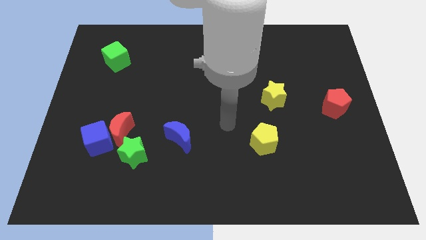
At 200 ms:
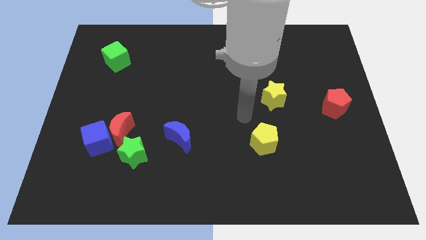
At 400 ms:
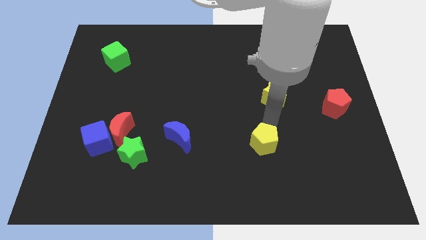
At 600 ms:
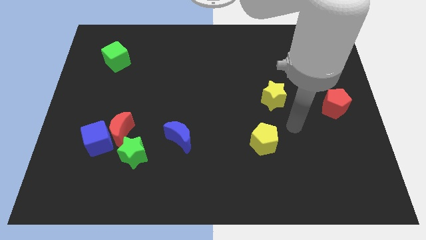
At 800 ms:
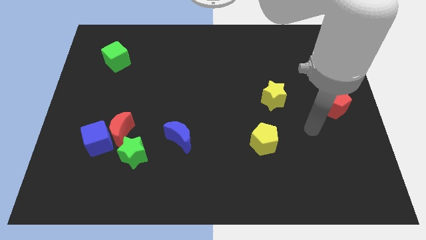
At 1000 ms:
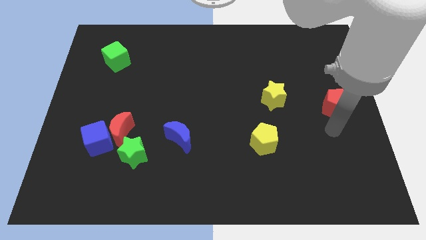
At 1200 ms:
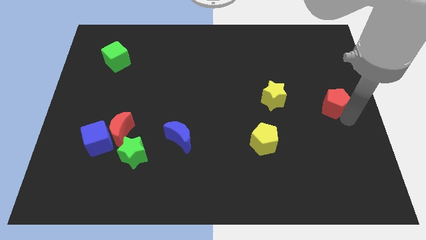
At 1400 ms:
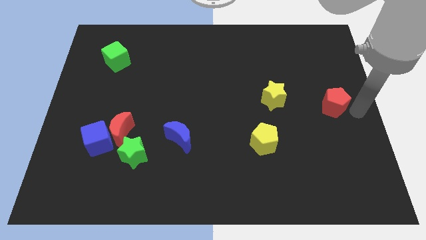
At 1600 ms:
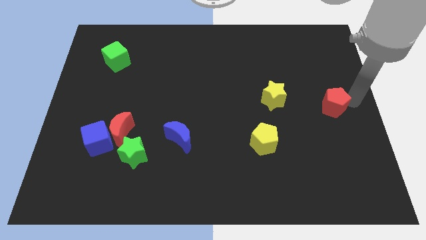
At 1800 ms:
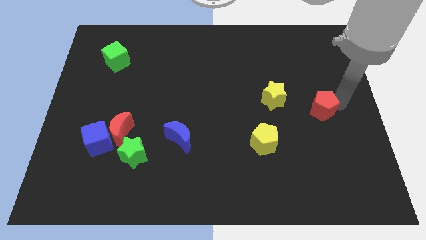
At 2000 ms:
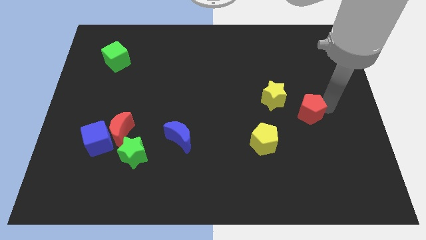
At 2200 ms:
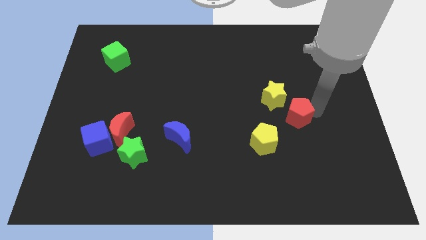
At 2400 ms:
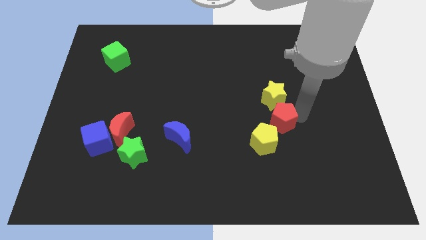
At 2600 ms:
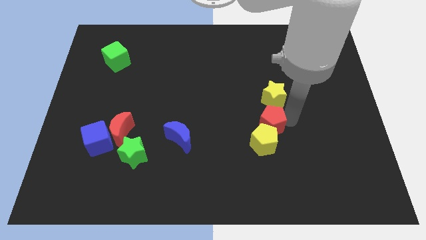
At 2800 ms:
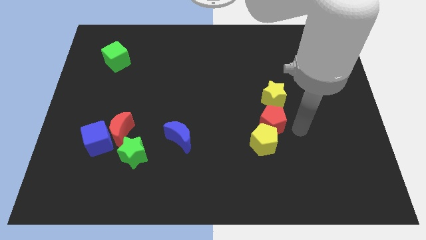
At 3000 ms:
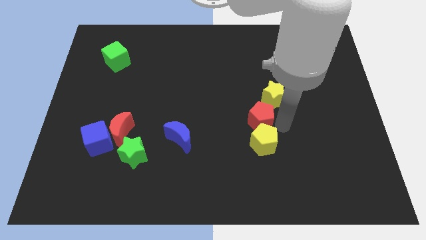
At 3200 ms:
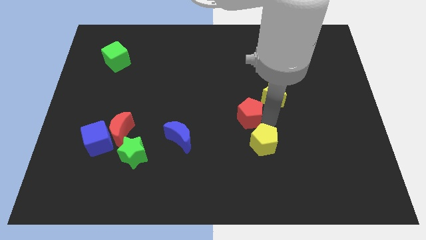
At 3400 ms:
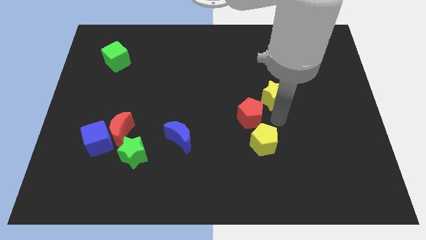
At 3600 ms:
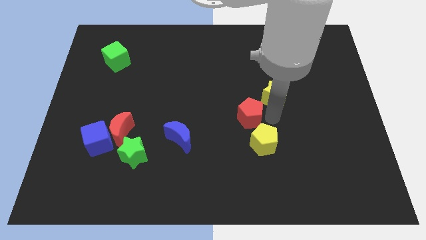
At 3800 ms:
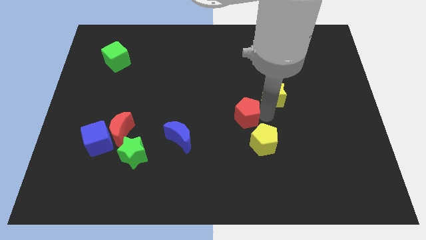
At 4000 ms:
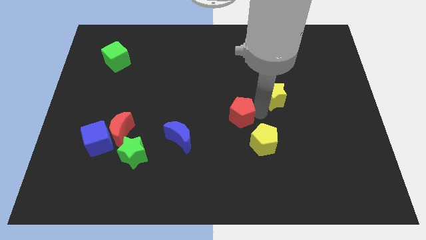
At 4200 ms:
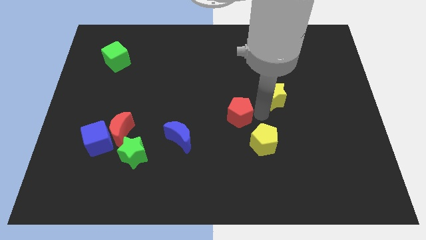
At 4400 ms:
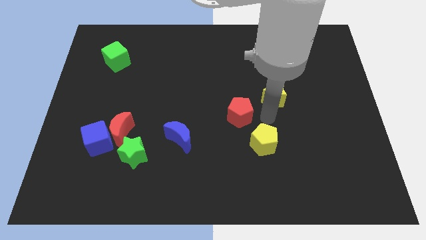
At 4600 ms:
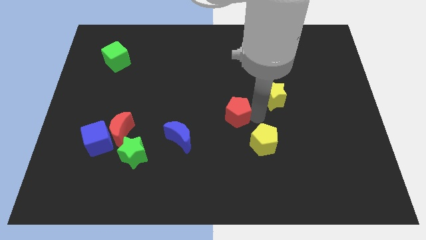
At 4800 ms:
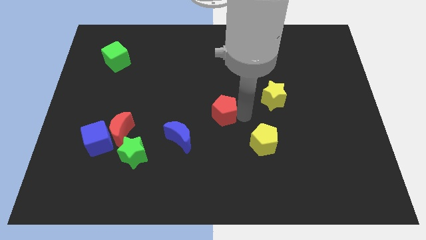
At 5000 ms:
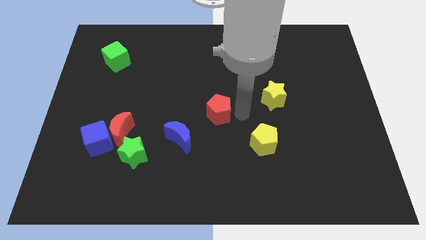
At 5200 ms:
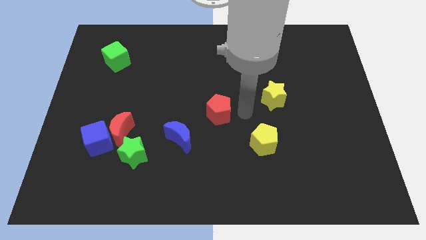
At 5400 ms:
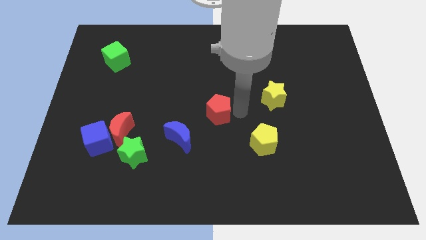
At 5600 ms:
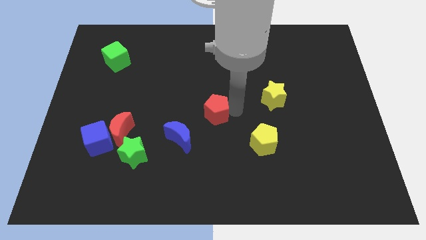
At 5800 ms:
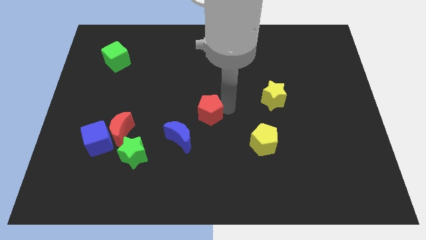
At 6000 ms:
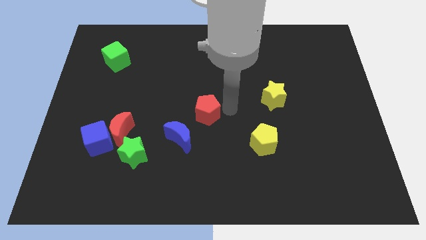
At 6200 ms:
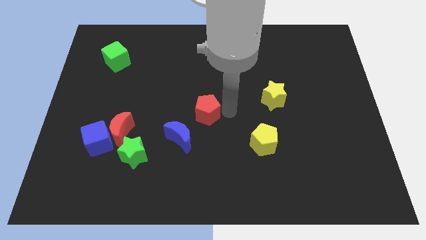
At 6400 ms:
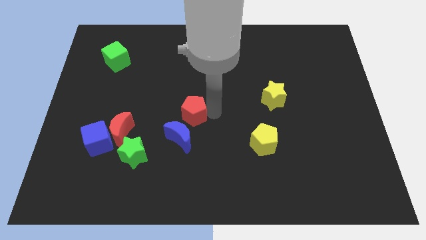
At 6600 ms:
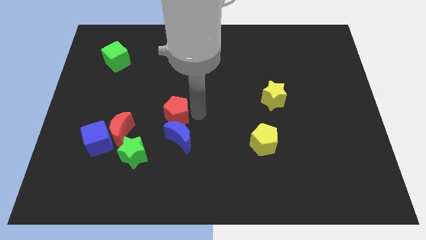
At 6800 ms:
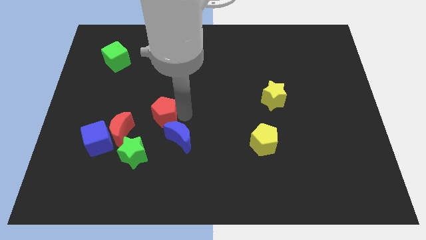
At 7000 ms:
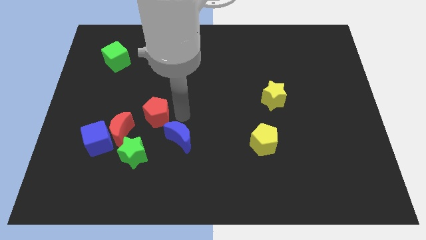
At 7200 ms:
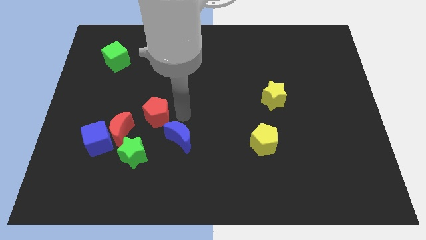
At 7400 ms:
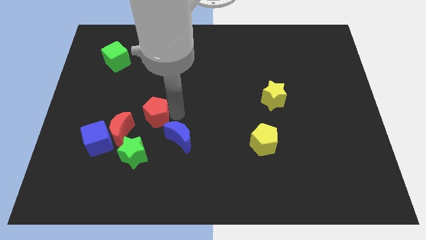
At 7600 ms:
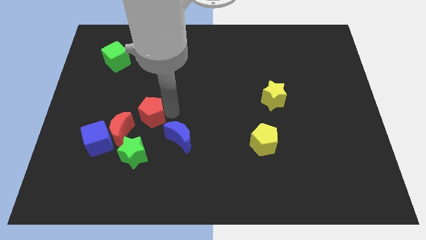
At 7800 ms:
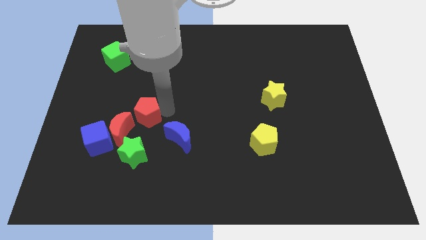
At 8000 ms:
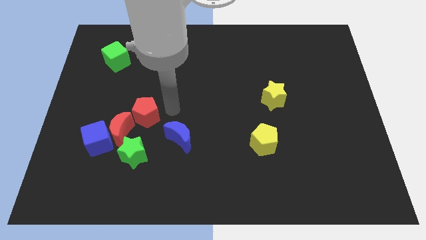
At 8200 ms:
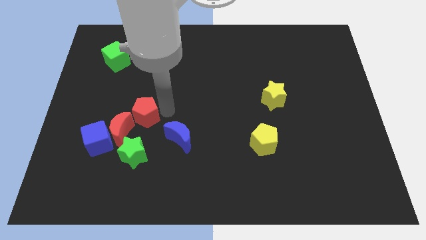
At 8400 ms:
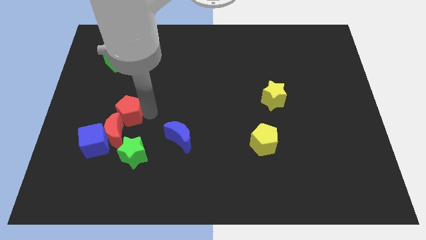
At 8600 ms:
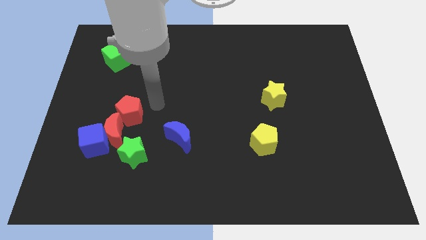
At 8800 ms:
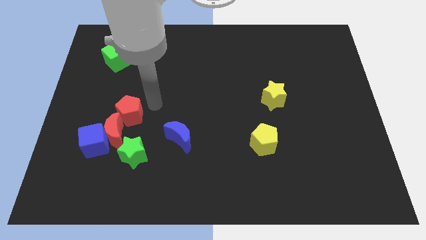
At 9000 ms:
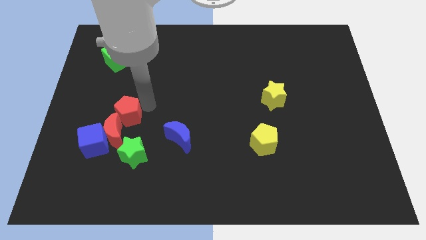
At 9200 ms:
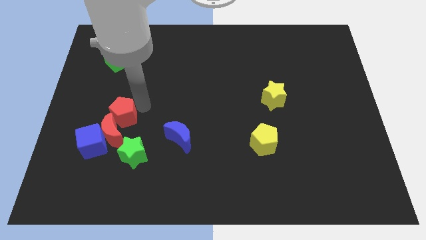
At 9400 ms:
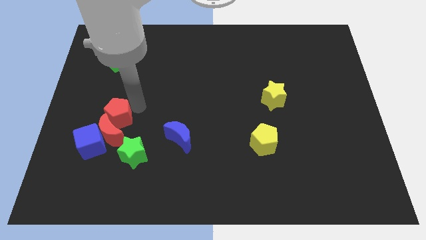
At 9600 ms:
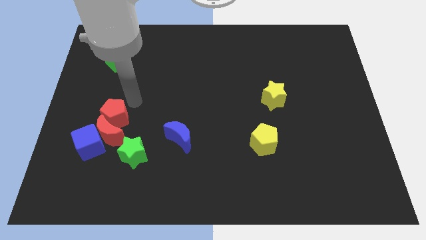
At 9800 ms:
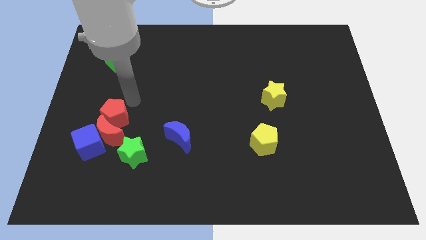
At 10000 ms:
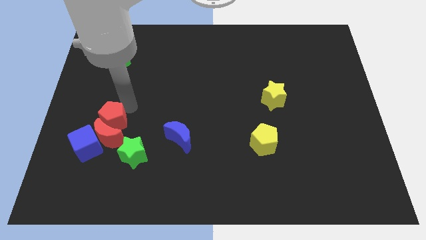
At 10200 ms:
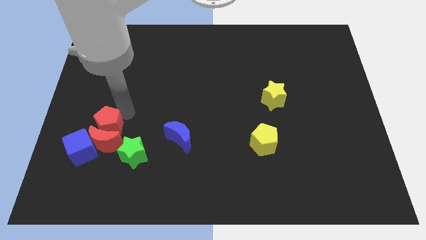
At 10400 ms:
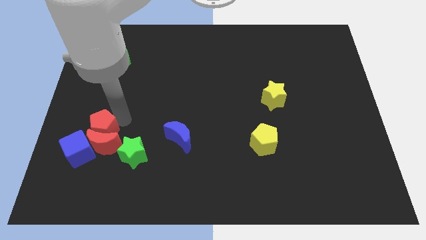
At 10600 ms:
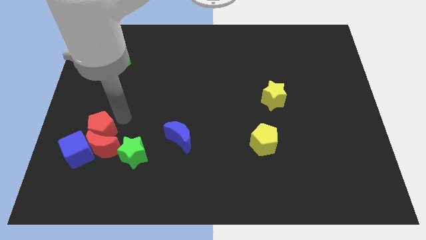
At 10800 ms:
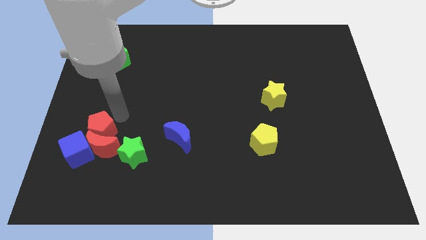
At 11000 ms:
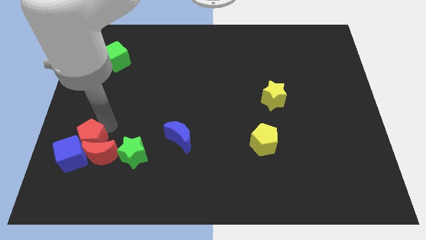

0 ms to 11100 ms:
slide the red pentagon close to the blue cube

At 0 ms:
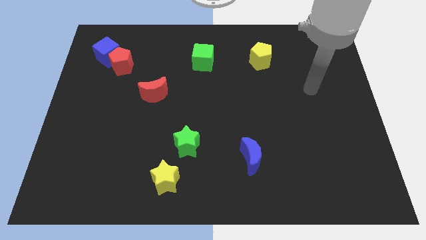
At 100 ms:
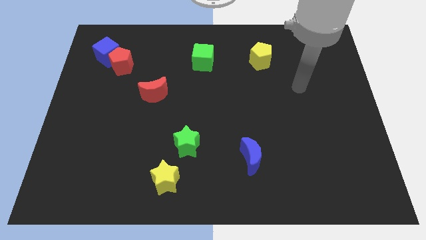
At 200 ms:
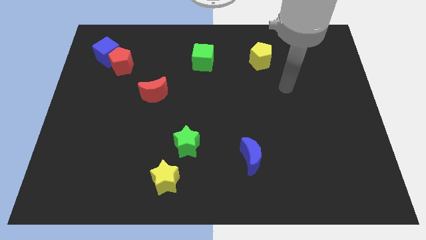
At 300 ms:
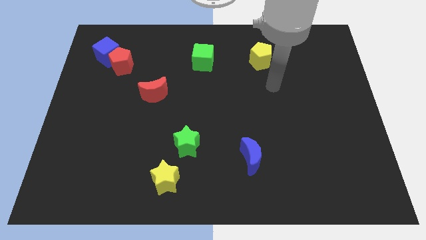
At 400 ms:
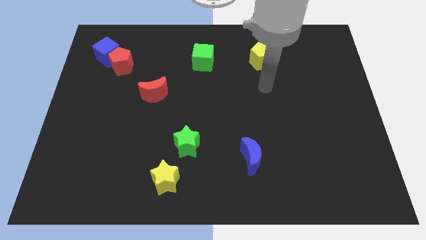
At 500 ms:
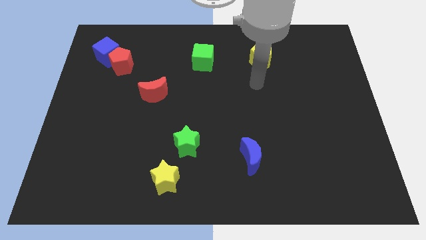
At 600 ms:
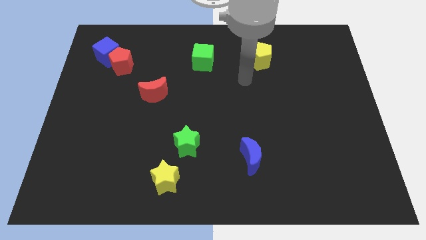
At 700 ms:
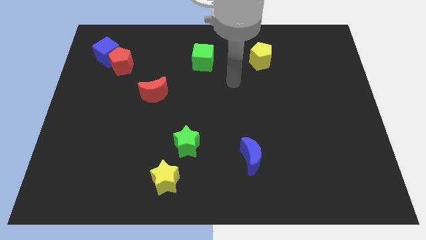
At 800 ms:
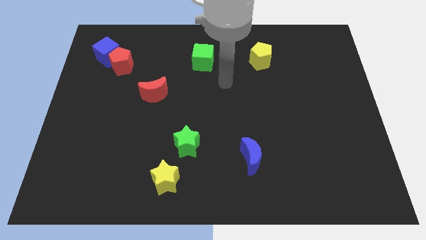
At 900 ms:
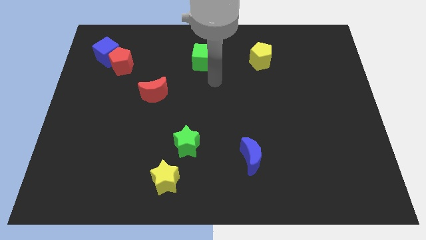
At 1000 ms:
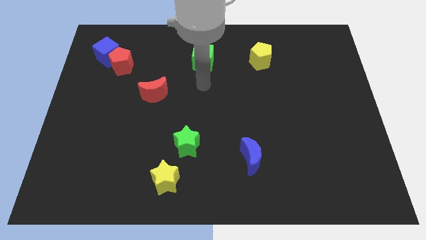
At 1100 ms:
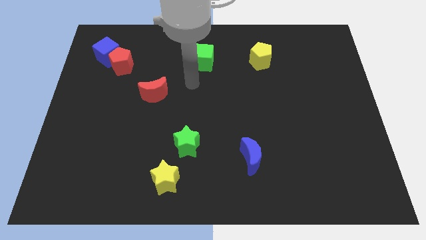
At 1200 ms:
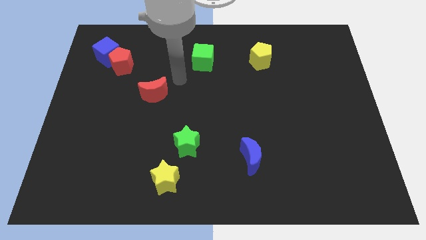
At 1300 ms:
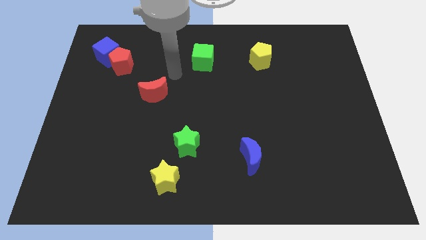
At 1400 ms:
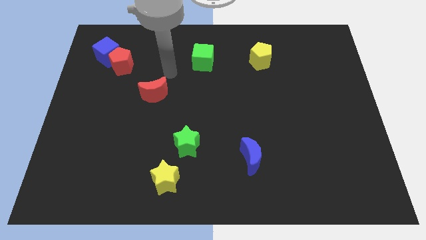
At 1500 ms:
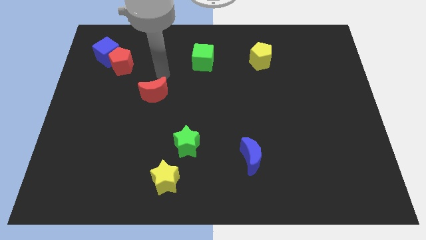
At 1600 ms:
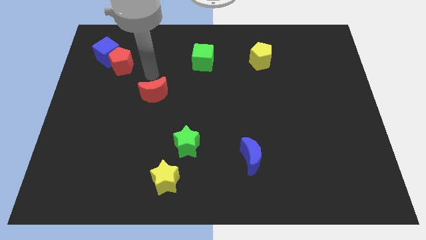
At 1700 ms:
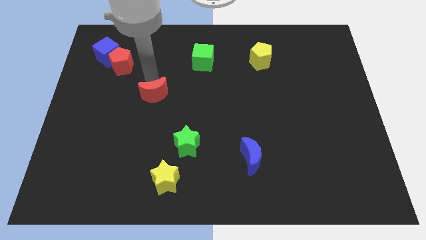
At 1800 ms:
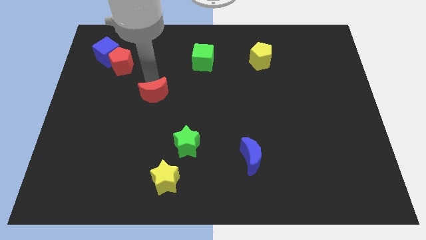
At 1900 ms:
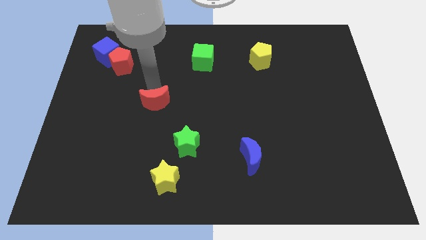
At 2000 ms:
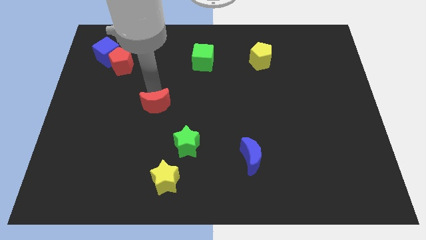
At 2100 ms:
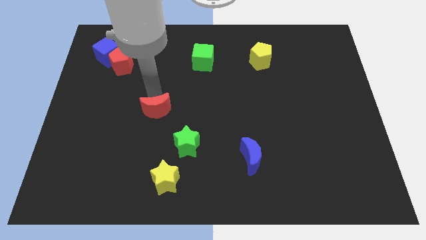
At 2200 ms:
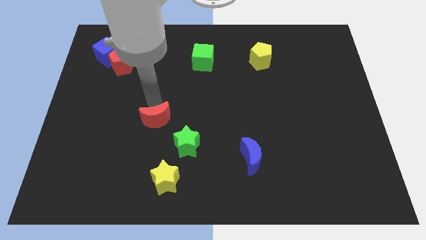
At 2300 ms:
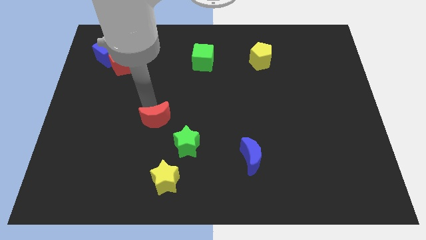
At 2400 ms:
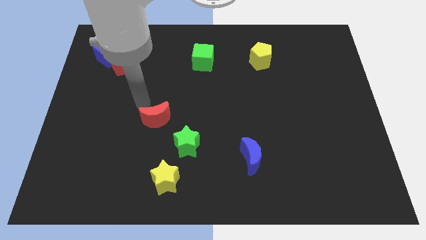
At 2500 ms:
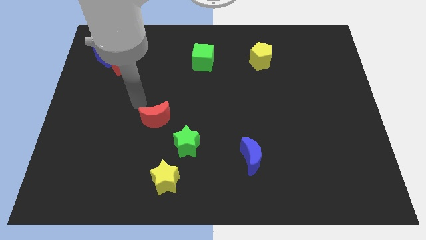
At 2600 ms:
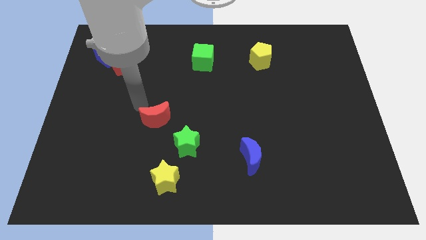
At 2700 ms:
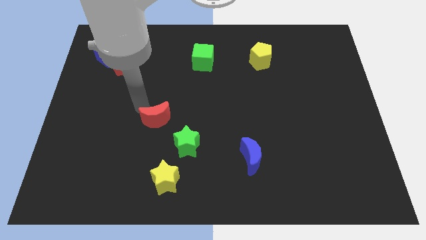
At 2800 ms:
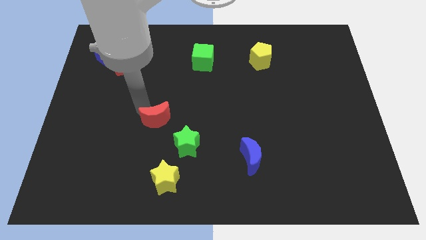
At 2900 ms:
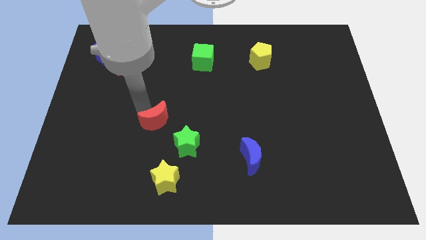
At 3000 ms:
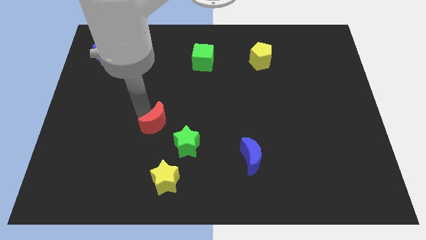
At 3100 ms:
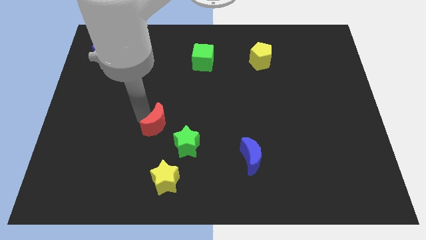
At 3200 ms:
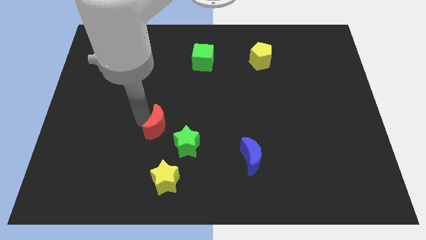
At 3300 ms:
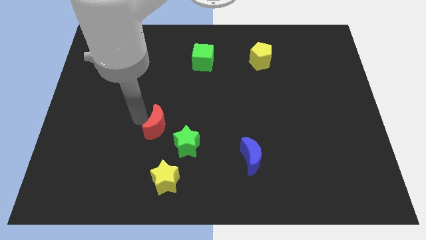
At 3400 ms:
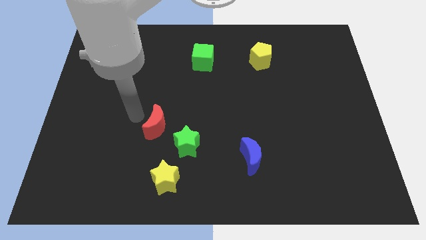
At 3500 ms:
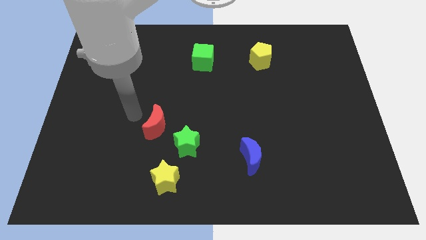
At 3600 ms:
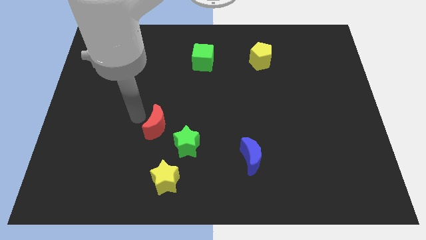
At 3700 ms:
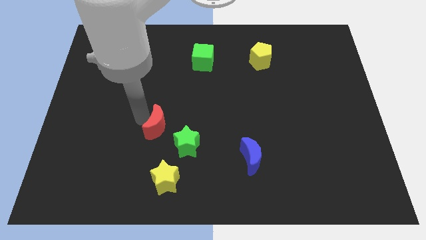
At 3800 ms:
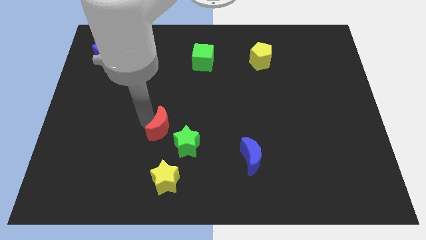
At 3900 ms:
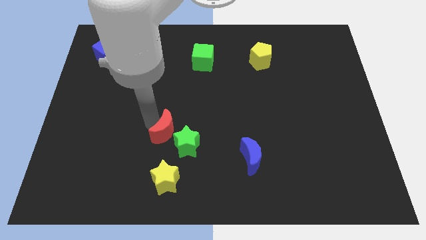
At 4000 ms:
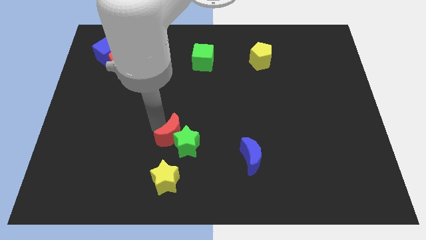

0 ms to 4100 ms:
push the red moon close to the green star
